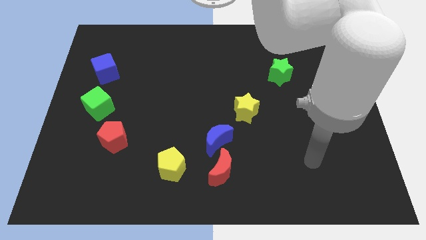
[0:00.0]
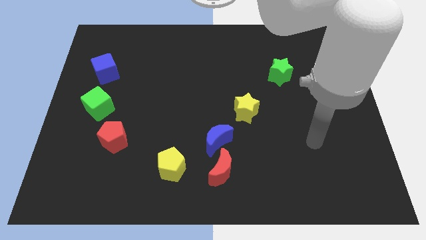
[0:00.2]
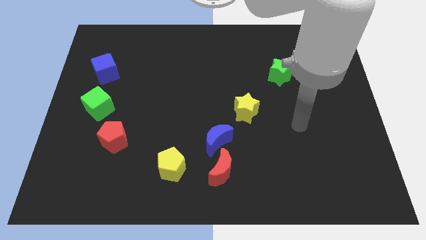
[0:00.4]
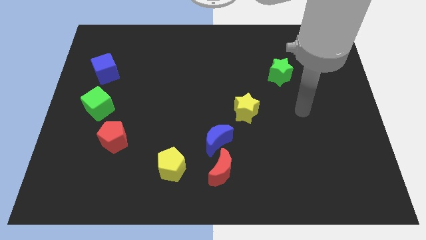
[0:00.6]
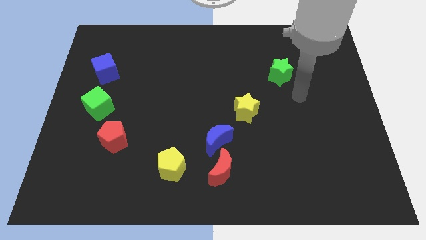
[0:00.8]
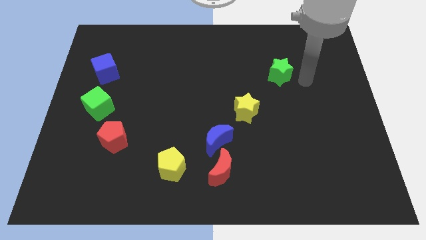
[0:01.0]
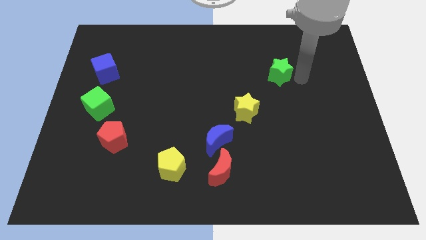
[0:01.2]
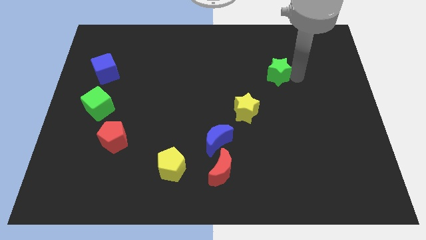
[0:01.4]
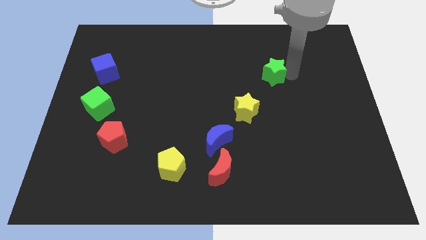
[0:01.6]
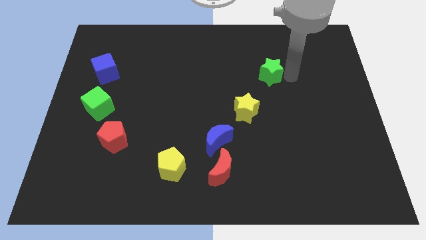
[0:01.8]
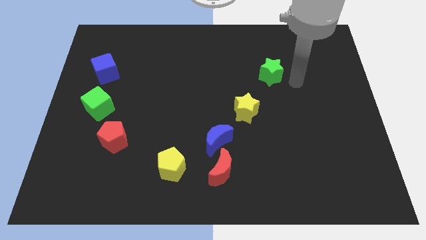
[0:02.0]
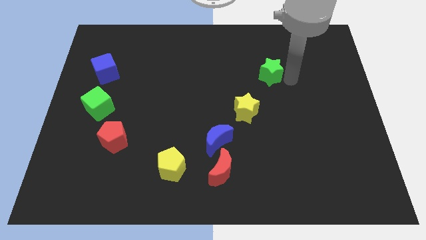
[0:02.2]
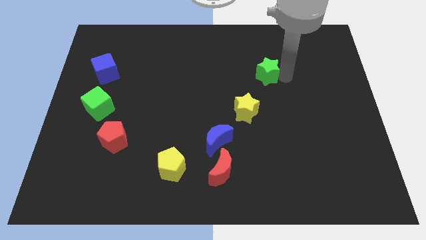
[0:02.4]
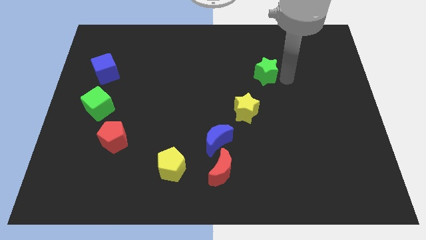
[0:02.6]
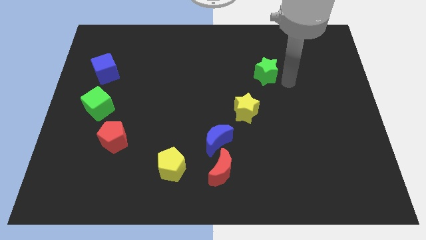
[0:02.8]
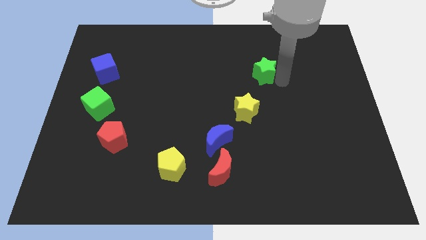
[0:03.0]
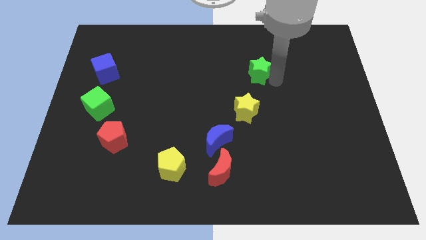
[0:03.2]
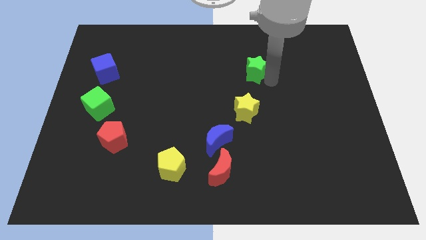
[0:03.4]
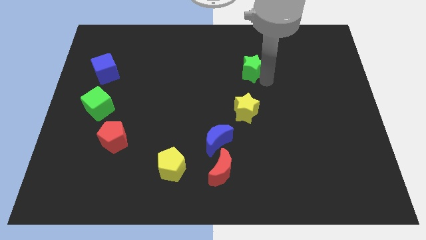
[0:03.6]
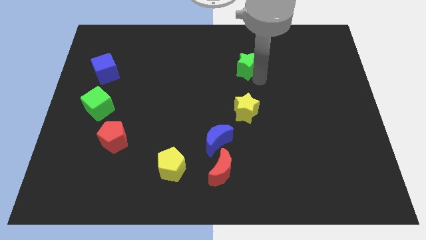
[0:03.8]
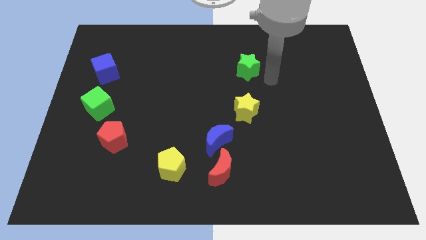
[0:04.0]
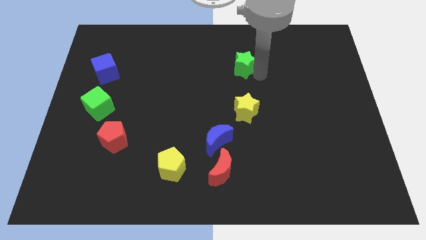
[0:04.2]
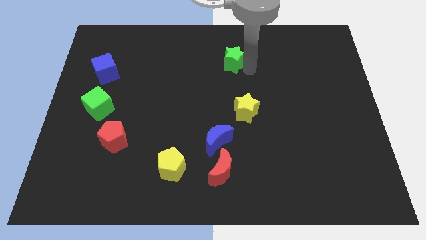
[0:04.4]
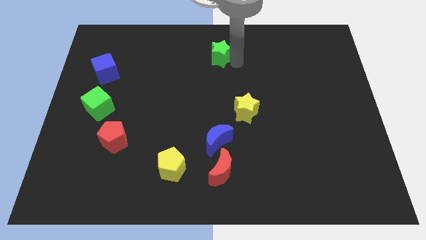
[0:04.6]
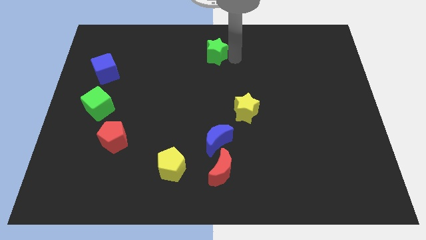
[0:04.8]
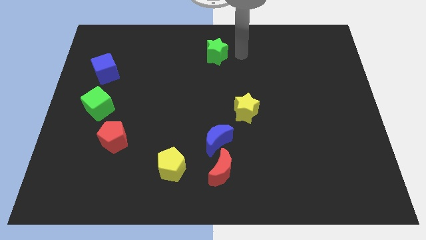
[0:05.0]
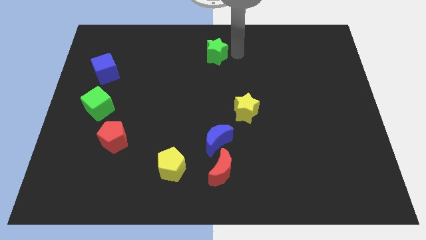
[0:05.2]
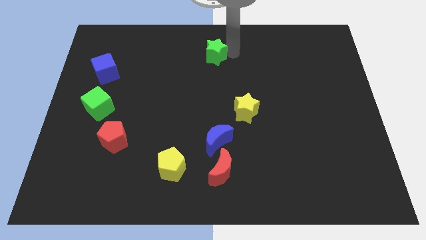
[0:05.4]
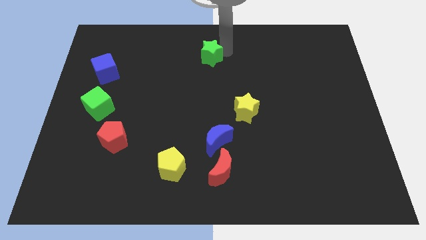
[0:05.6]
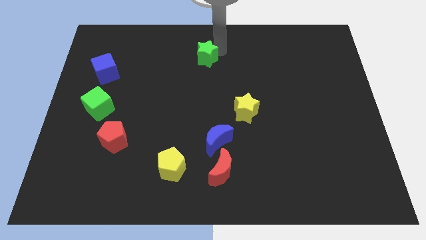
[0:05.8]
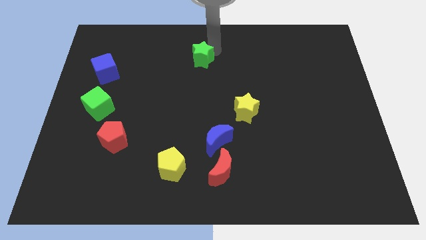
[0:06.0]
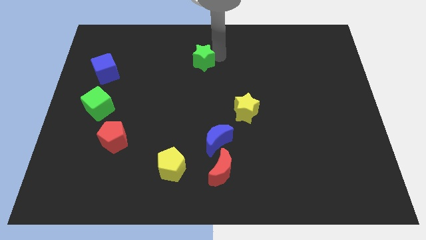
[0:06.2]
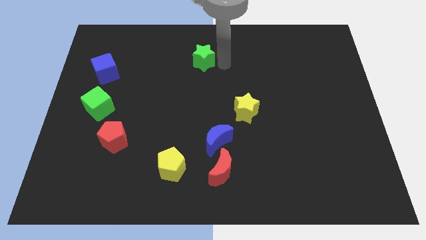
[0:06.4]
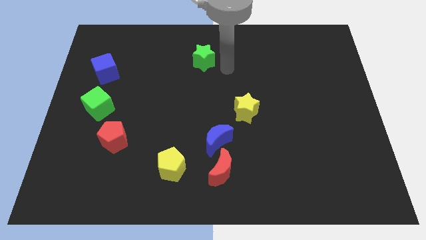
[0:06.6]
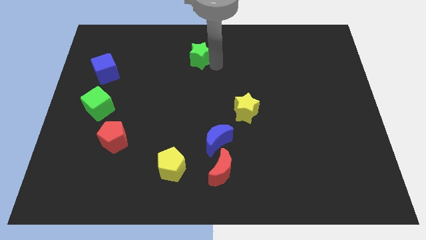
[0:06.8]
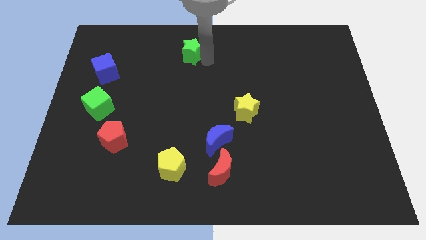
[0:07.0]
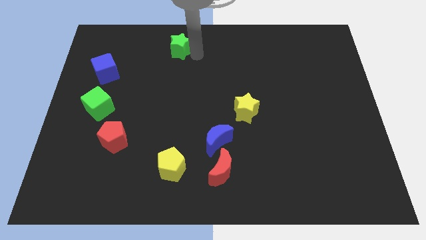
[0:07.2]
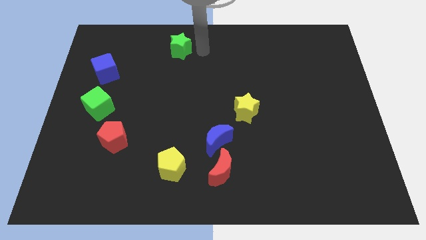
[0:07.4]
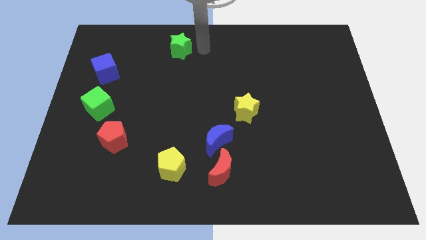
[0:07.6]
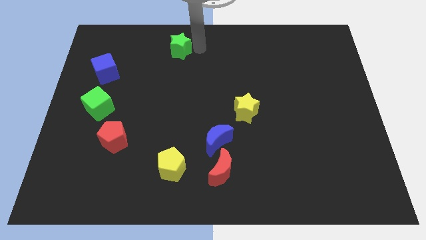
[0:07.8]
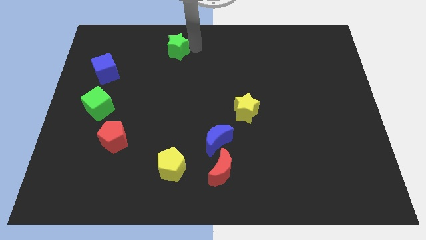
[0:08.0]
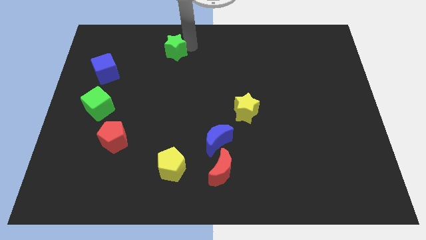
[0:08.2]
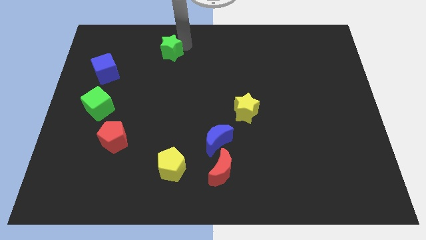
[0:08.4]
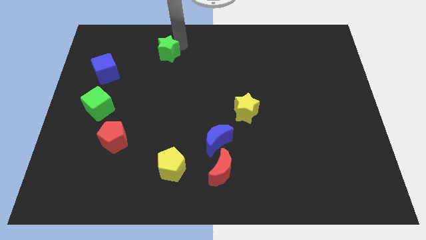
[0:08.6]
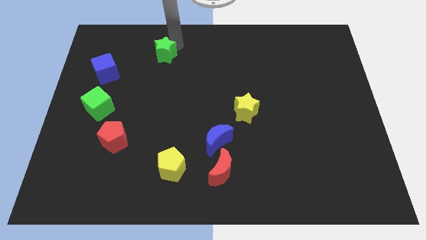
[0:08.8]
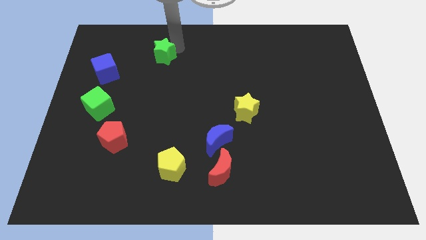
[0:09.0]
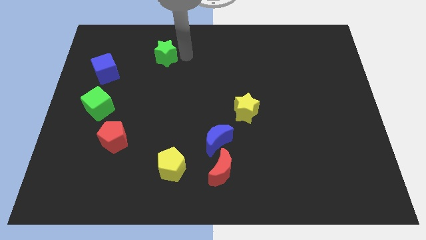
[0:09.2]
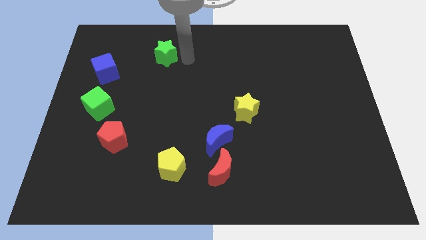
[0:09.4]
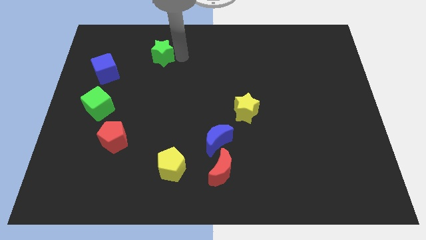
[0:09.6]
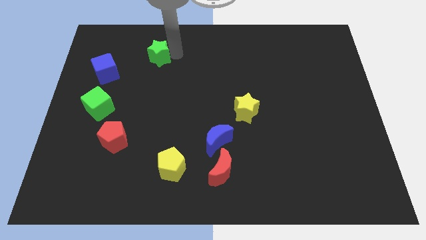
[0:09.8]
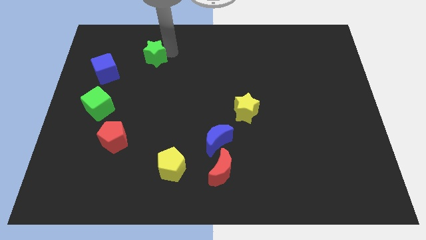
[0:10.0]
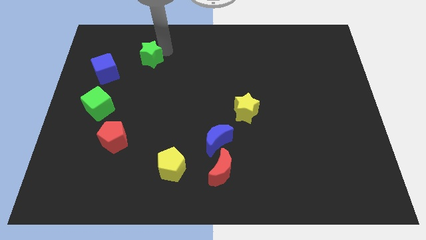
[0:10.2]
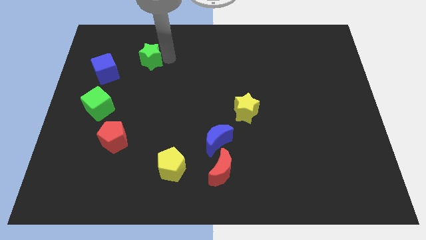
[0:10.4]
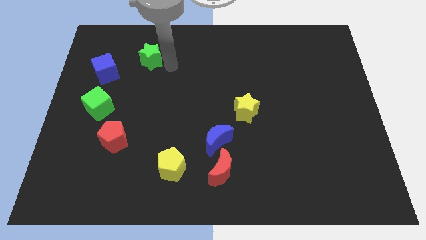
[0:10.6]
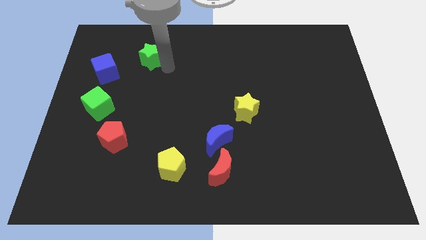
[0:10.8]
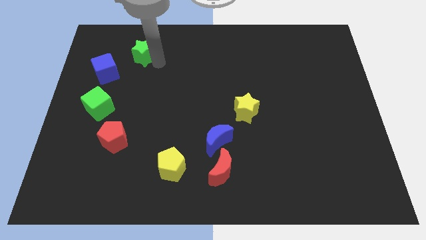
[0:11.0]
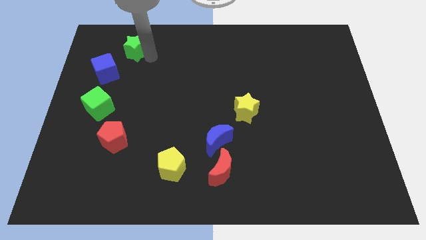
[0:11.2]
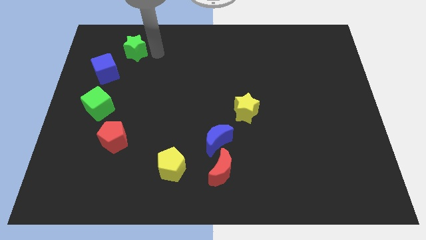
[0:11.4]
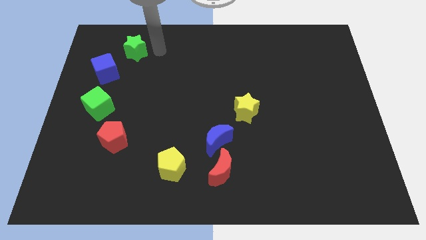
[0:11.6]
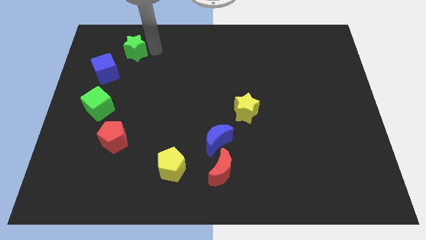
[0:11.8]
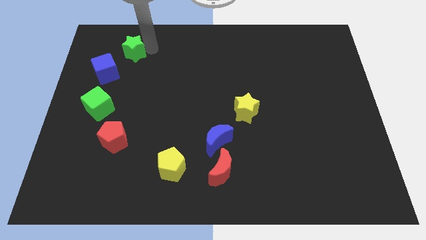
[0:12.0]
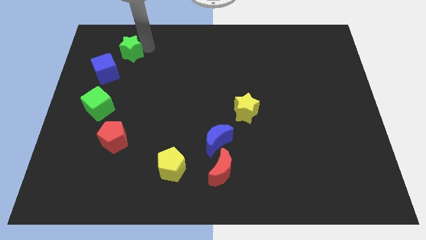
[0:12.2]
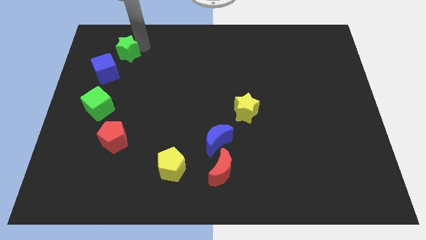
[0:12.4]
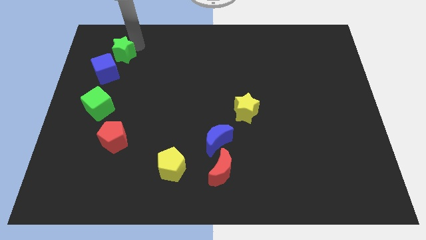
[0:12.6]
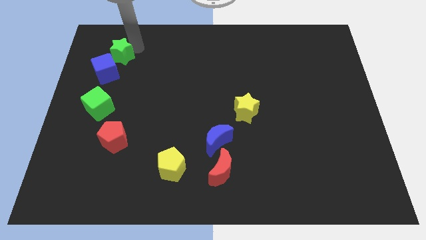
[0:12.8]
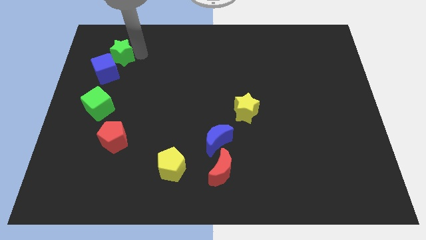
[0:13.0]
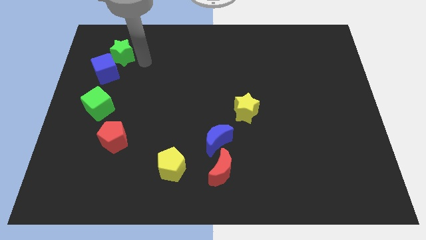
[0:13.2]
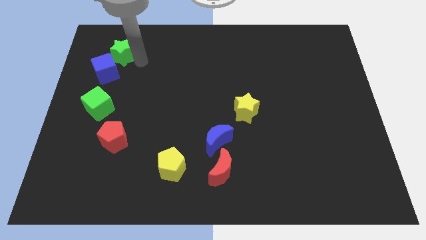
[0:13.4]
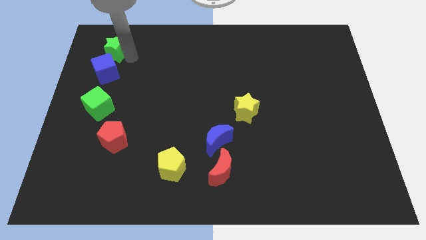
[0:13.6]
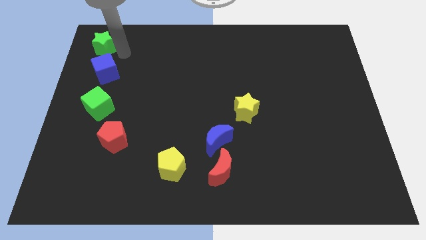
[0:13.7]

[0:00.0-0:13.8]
push the green star to the top left corner

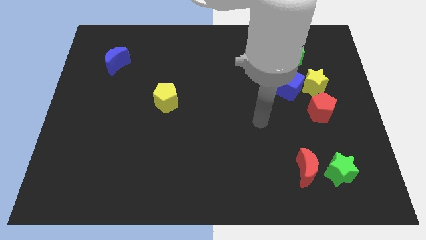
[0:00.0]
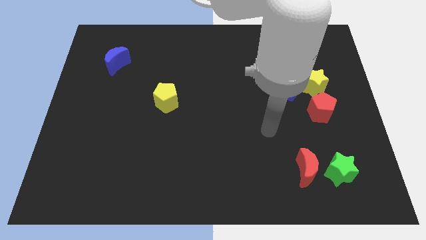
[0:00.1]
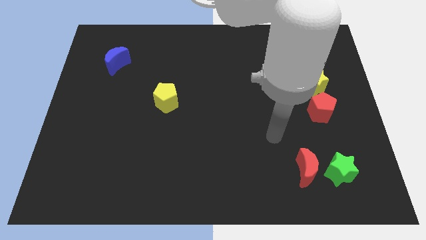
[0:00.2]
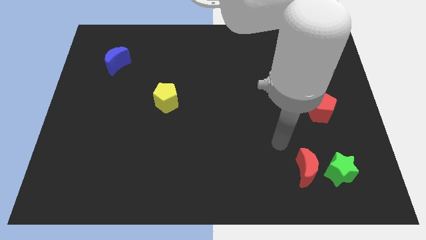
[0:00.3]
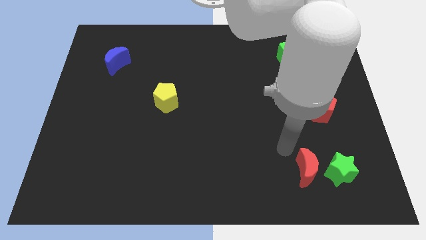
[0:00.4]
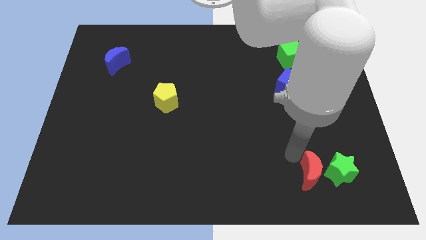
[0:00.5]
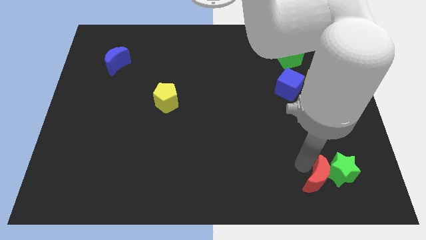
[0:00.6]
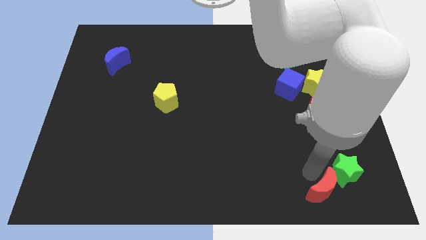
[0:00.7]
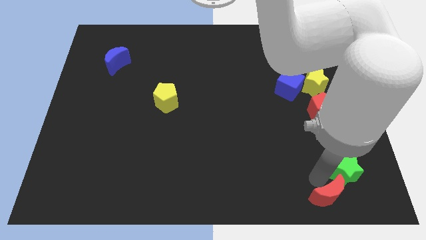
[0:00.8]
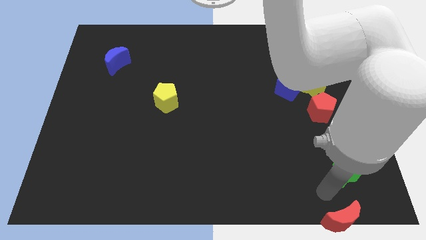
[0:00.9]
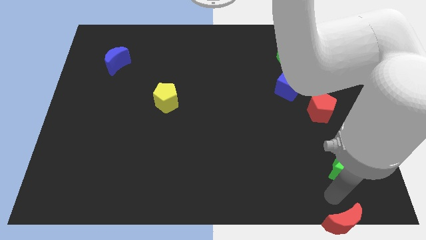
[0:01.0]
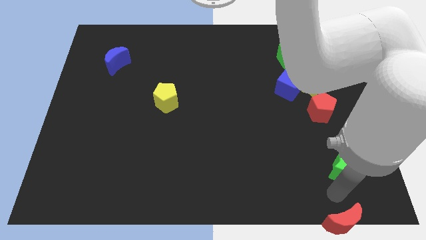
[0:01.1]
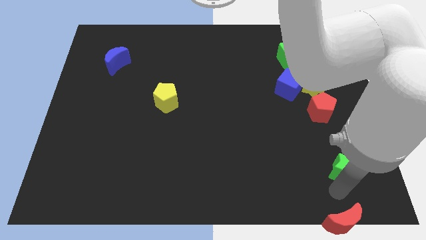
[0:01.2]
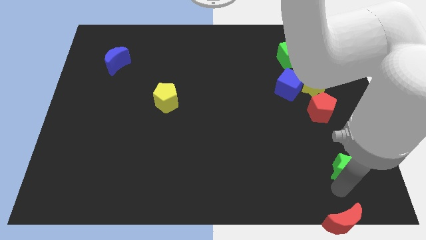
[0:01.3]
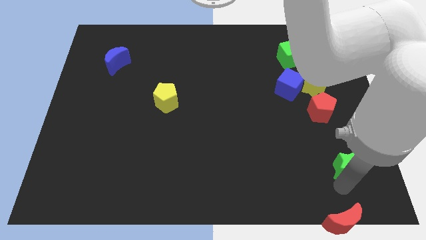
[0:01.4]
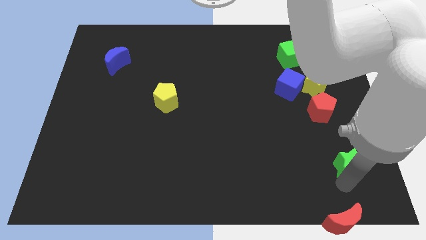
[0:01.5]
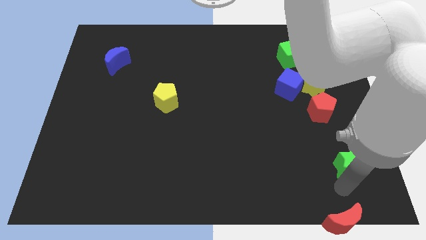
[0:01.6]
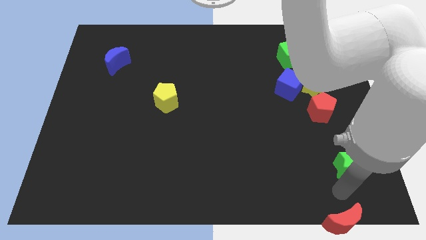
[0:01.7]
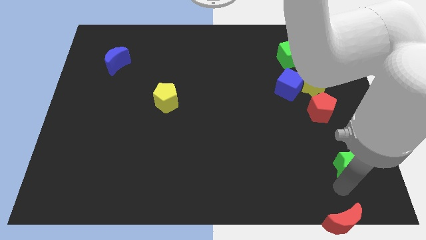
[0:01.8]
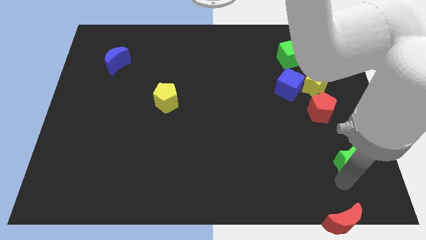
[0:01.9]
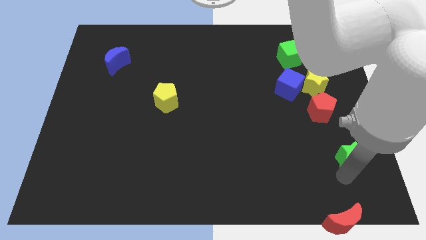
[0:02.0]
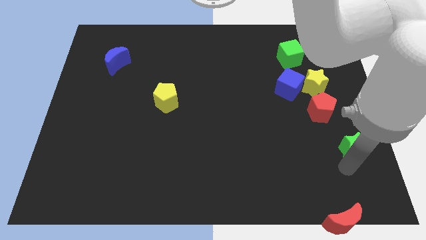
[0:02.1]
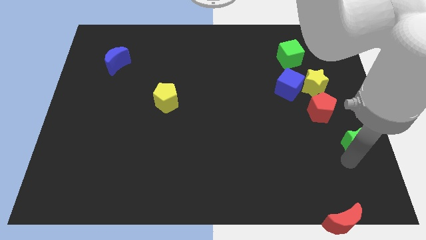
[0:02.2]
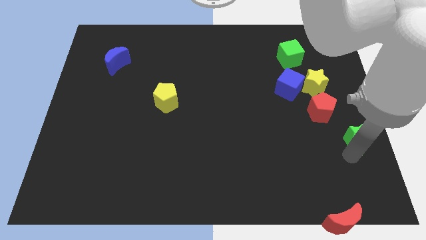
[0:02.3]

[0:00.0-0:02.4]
move the green star to the right side
